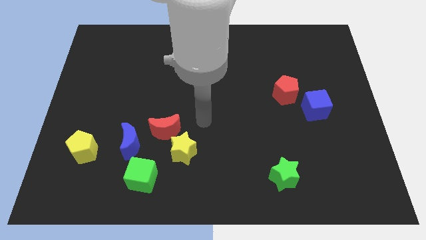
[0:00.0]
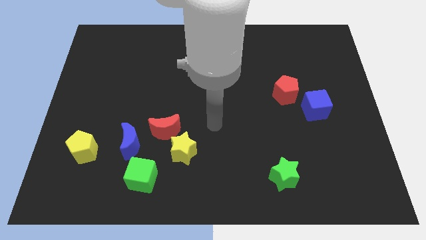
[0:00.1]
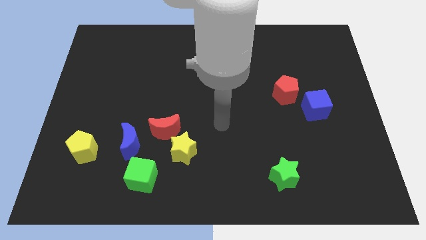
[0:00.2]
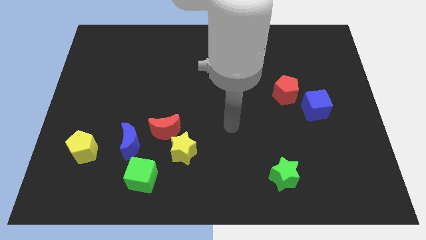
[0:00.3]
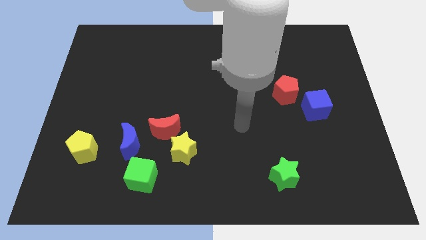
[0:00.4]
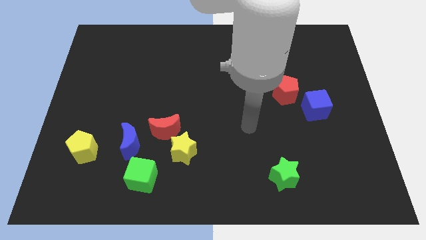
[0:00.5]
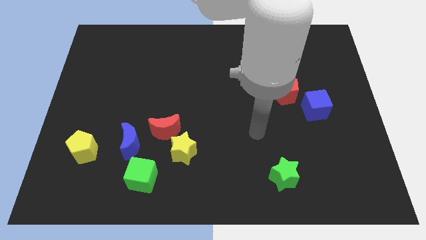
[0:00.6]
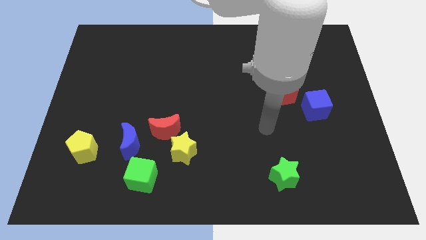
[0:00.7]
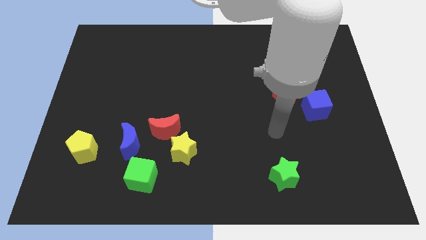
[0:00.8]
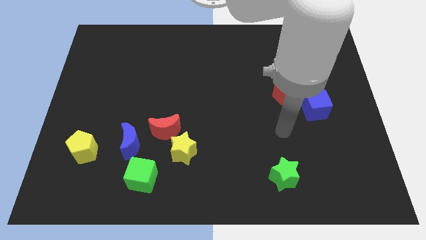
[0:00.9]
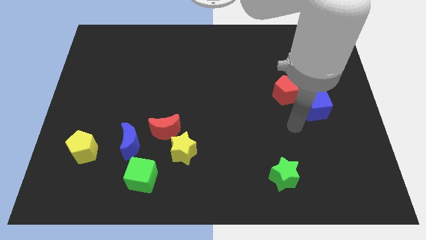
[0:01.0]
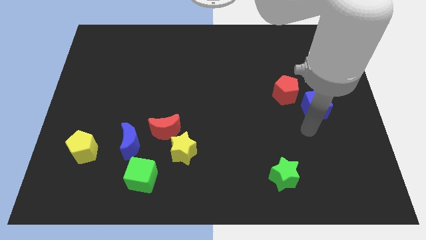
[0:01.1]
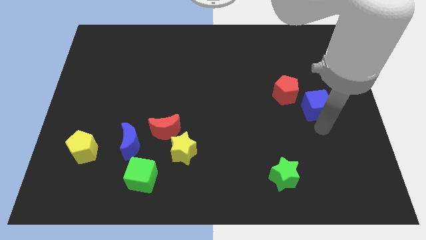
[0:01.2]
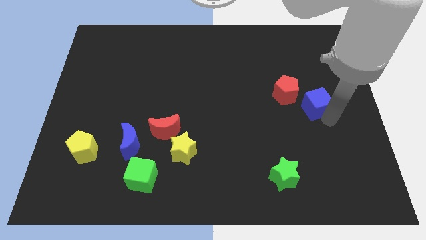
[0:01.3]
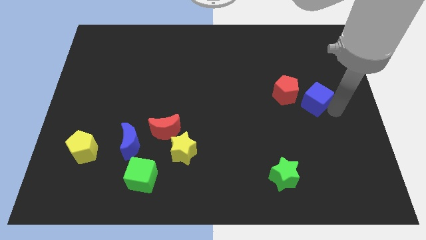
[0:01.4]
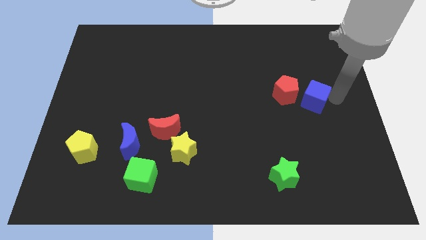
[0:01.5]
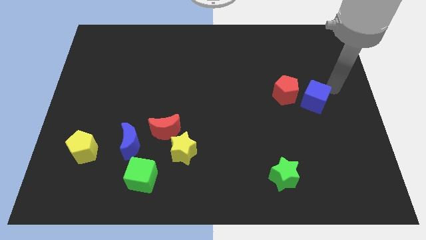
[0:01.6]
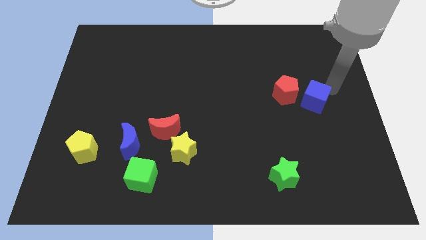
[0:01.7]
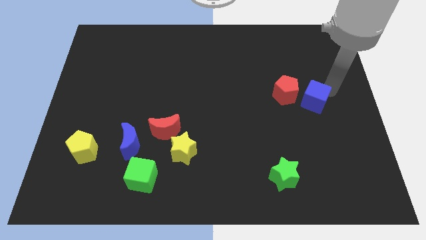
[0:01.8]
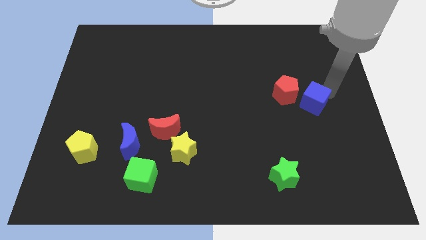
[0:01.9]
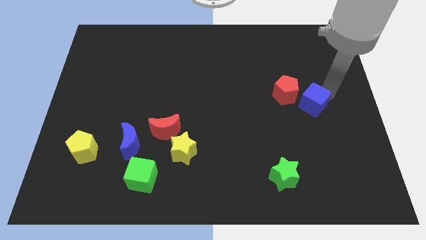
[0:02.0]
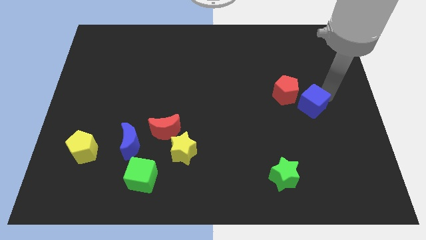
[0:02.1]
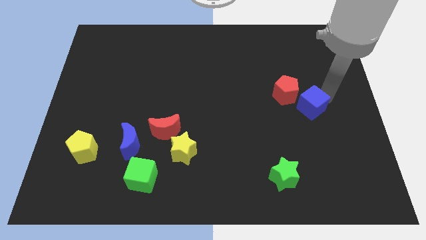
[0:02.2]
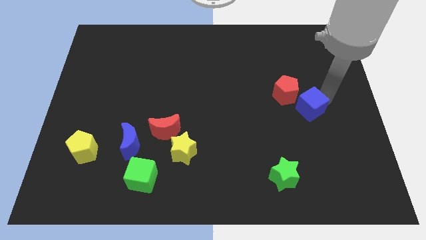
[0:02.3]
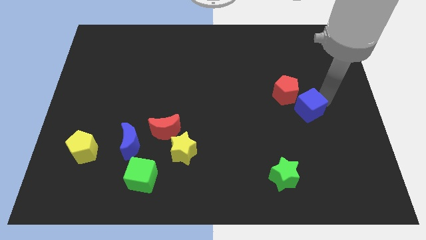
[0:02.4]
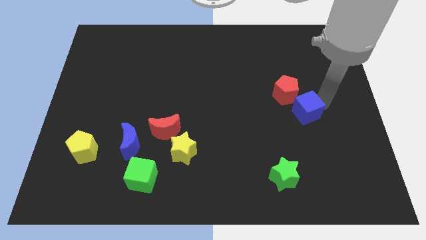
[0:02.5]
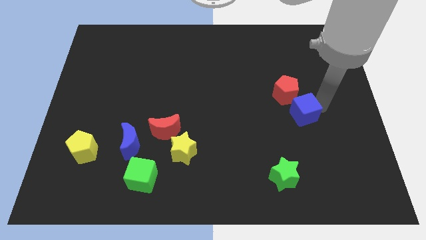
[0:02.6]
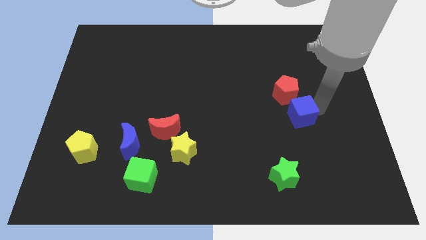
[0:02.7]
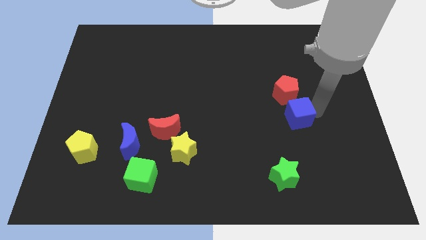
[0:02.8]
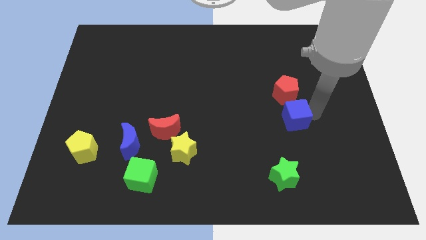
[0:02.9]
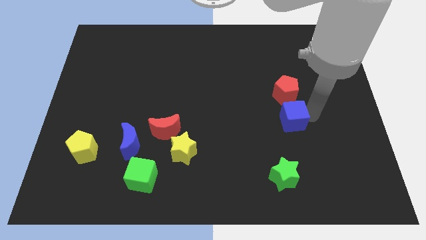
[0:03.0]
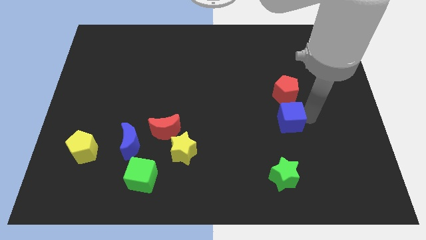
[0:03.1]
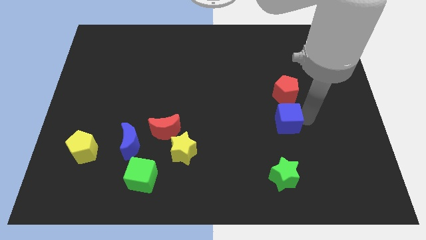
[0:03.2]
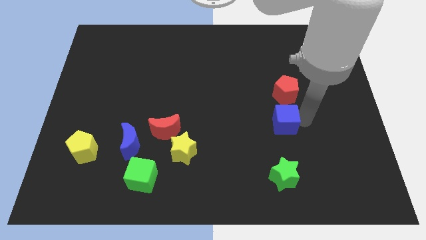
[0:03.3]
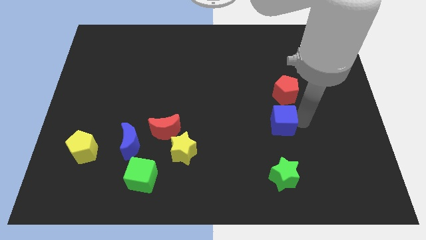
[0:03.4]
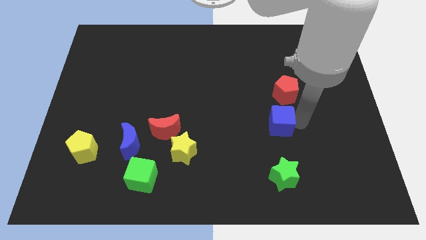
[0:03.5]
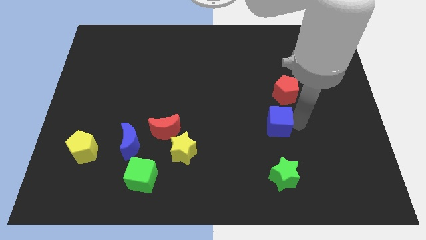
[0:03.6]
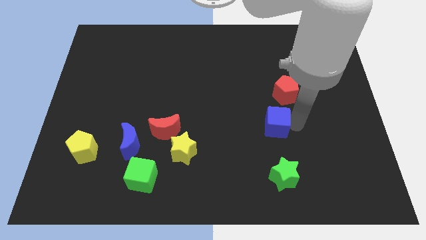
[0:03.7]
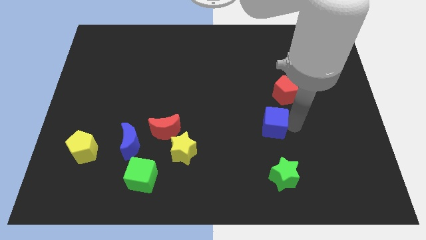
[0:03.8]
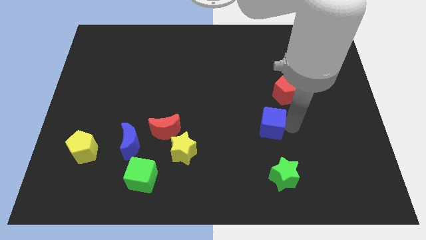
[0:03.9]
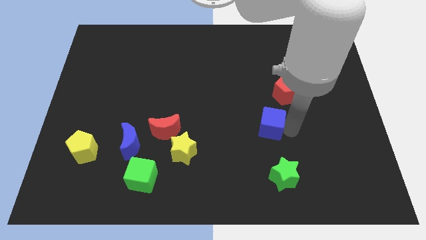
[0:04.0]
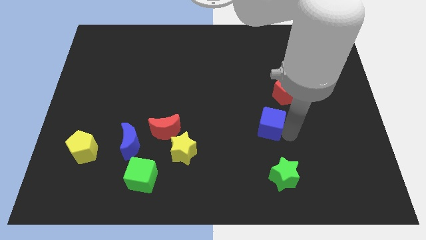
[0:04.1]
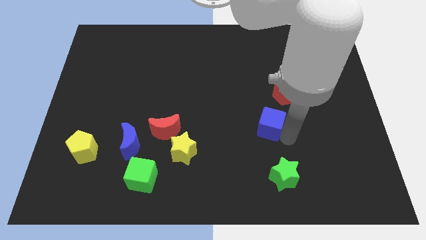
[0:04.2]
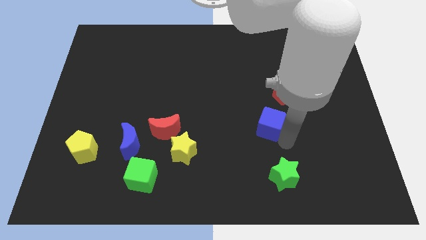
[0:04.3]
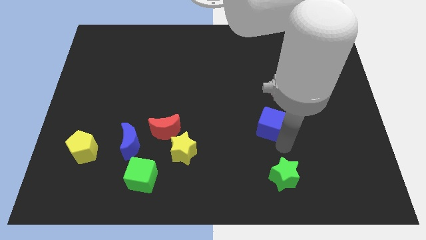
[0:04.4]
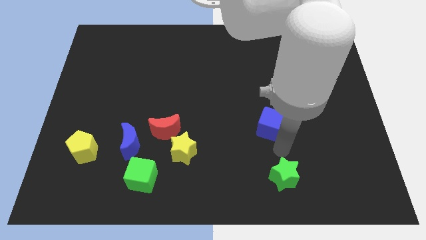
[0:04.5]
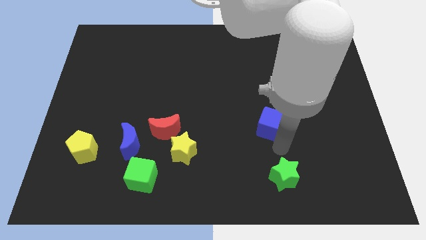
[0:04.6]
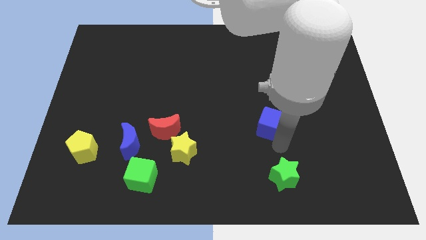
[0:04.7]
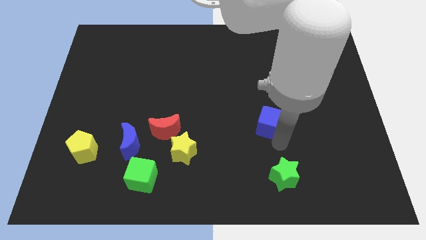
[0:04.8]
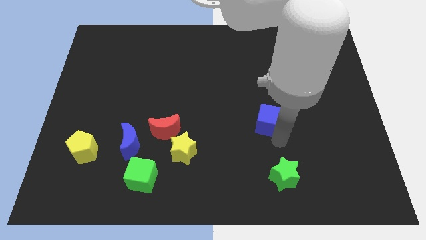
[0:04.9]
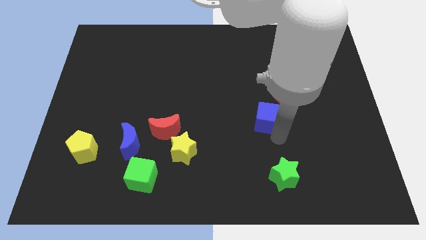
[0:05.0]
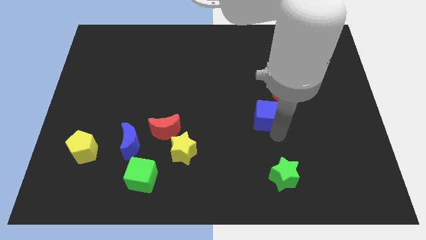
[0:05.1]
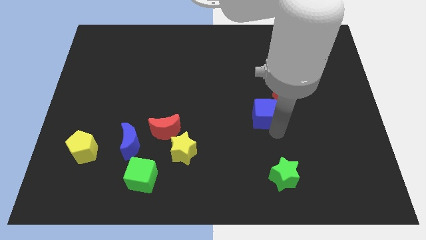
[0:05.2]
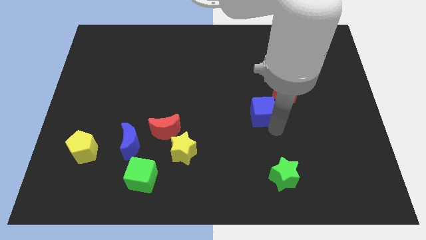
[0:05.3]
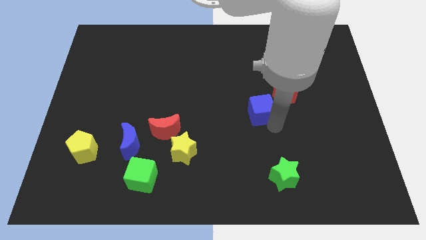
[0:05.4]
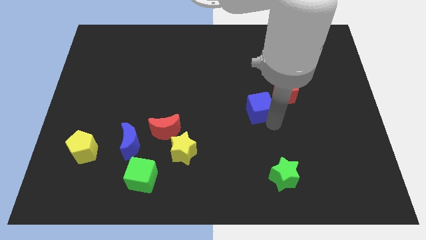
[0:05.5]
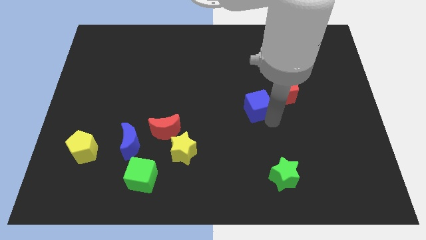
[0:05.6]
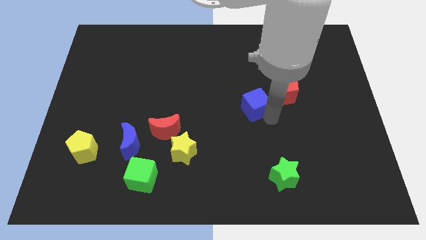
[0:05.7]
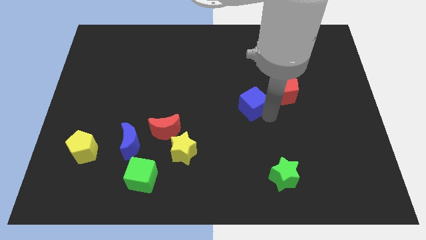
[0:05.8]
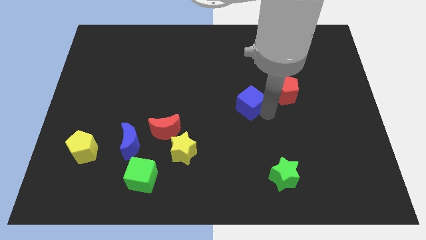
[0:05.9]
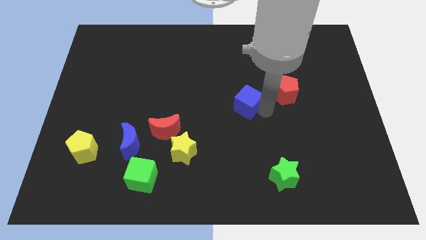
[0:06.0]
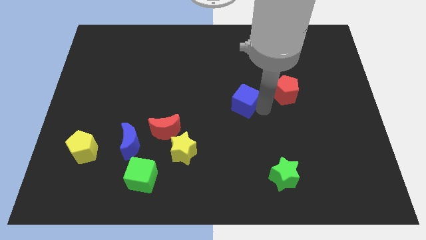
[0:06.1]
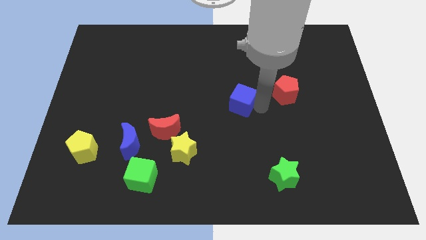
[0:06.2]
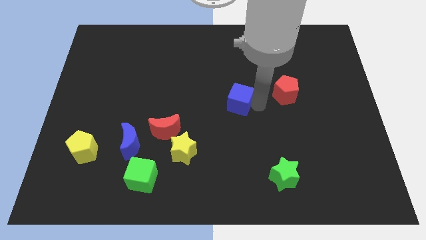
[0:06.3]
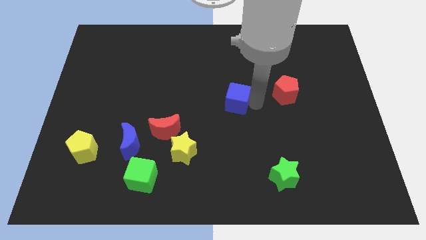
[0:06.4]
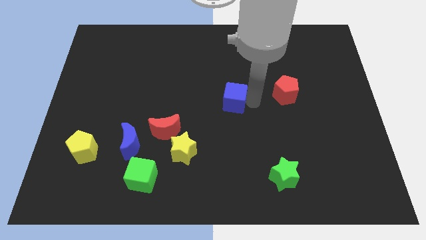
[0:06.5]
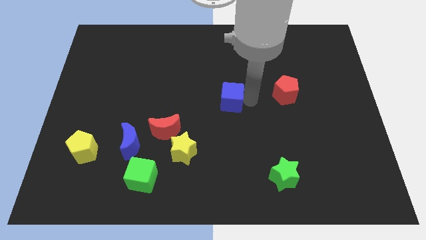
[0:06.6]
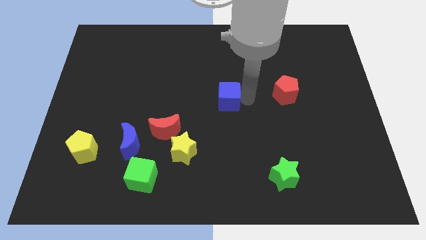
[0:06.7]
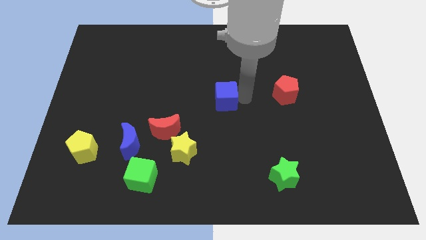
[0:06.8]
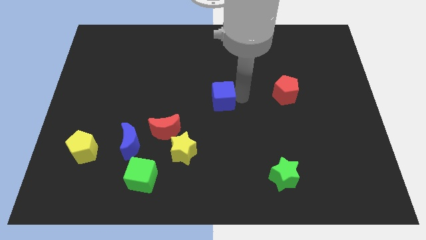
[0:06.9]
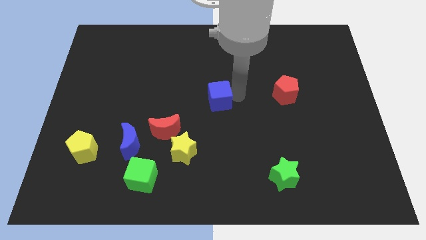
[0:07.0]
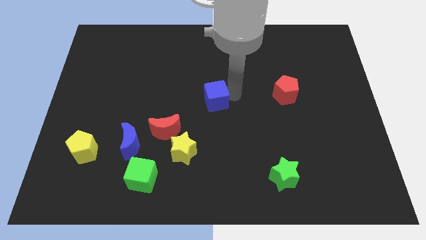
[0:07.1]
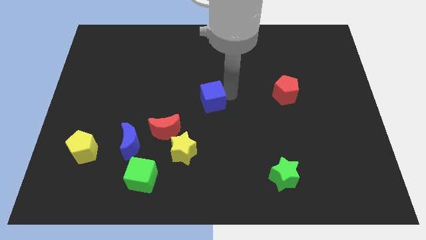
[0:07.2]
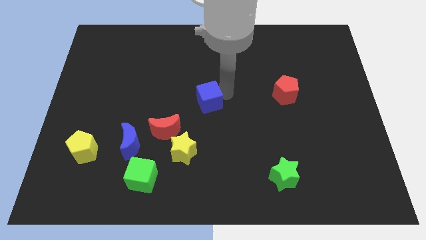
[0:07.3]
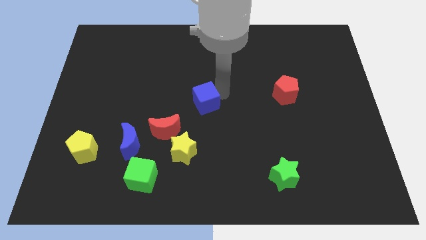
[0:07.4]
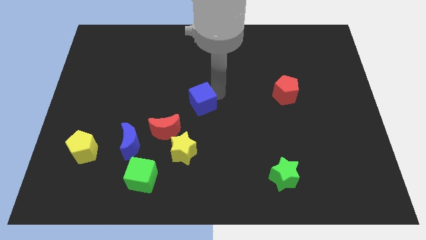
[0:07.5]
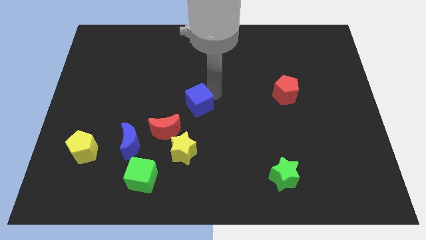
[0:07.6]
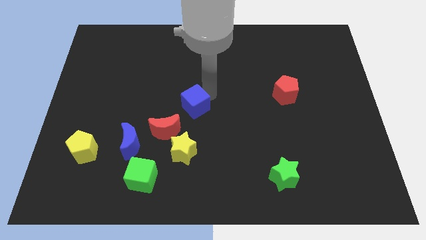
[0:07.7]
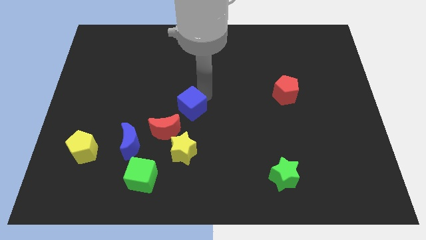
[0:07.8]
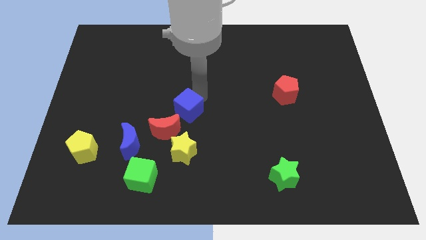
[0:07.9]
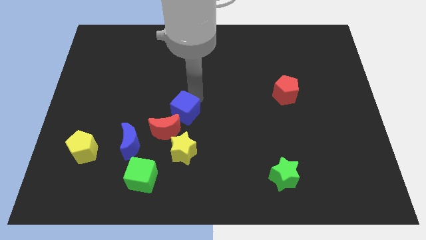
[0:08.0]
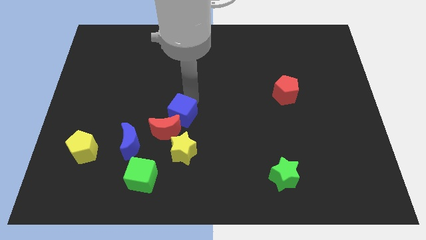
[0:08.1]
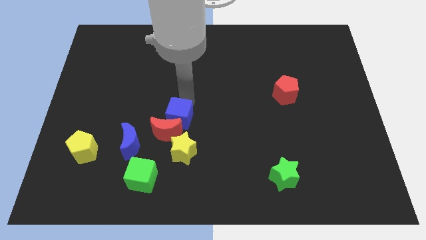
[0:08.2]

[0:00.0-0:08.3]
move the blue cube diagonally up and to the right of the blue moon
